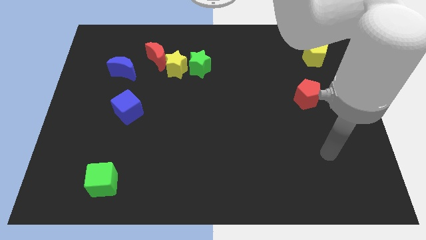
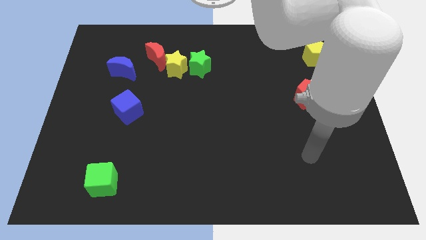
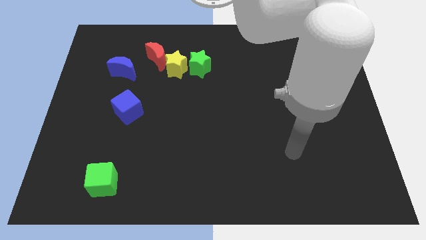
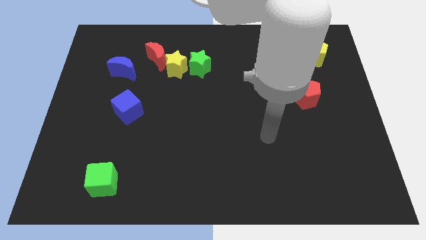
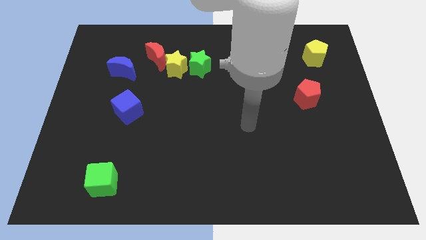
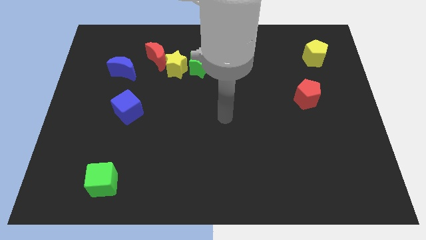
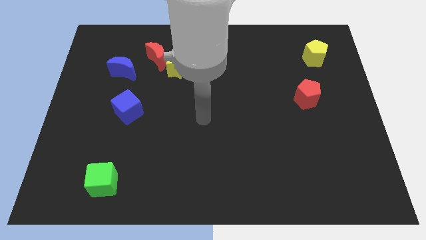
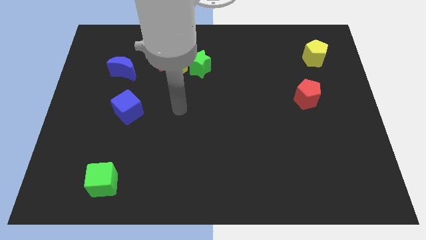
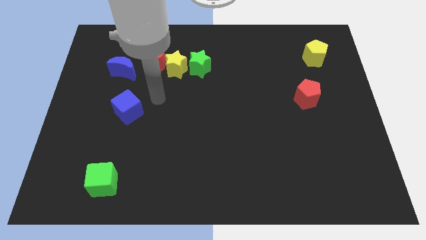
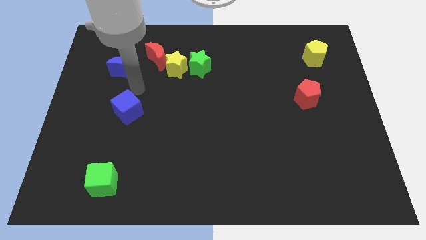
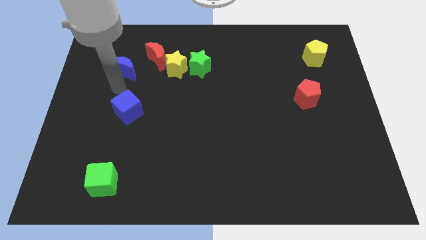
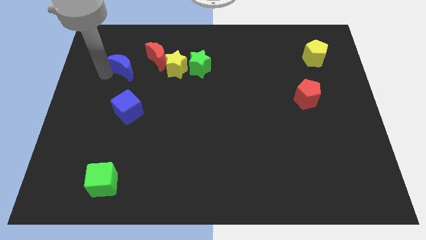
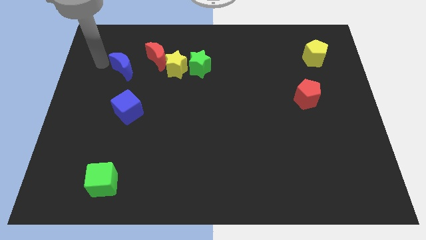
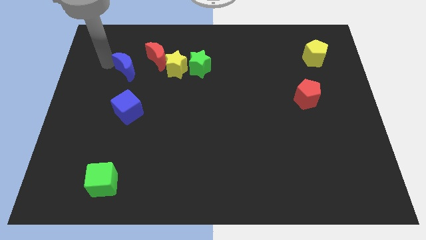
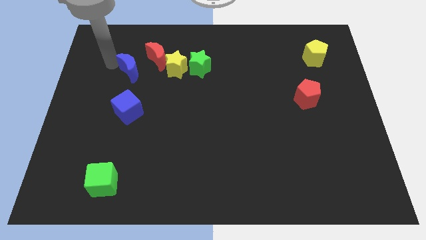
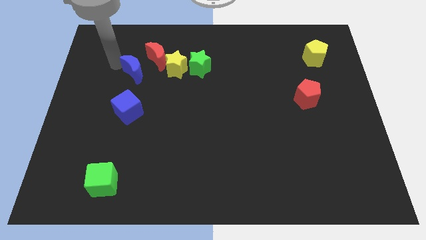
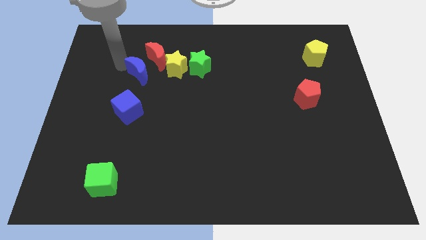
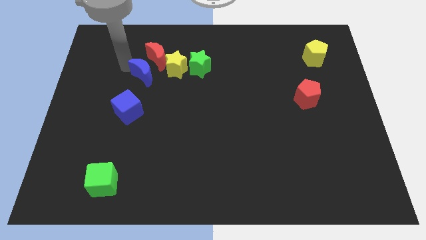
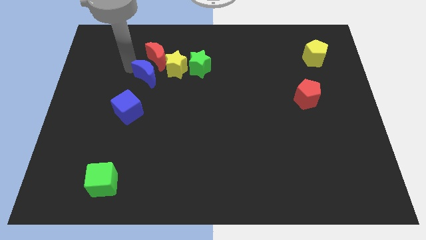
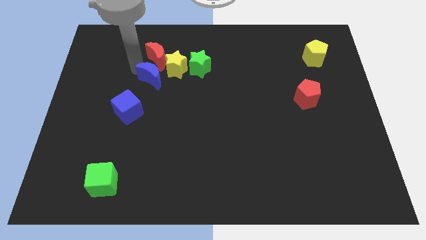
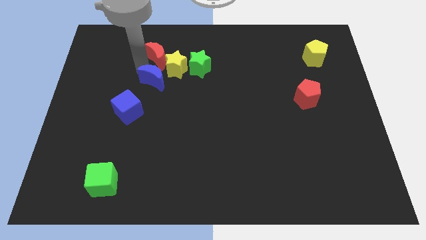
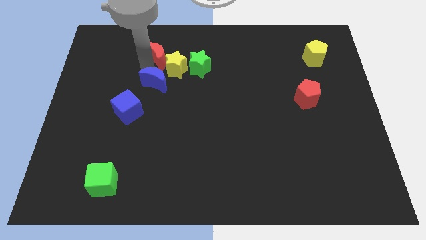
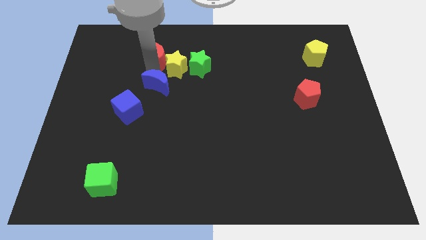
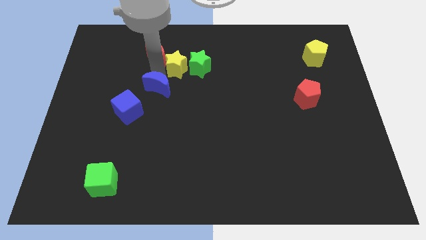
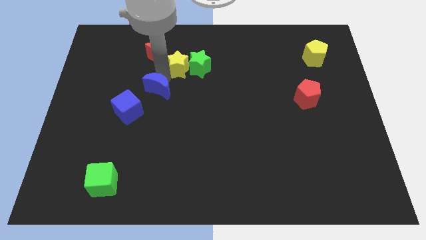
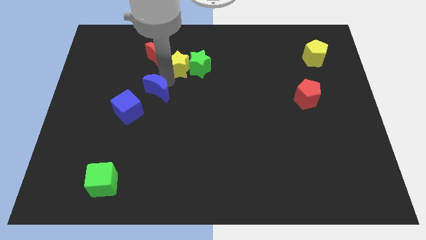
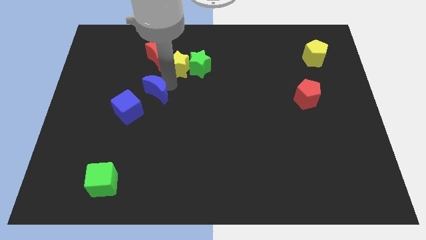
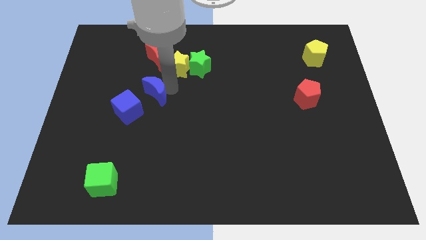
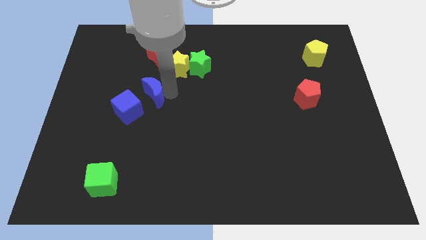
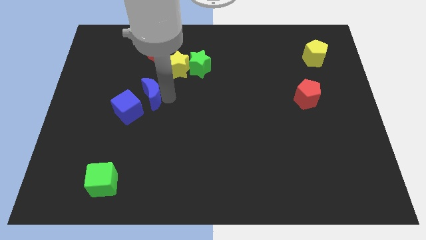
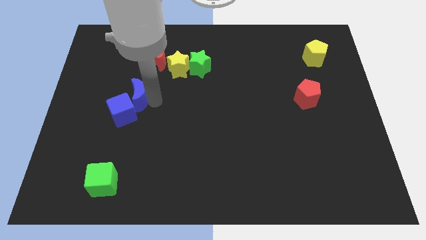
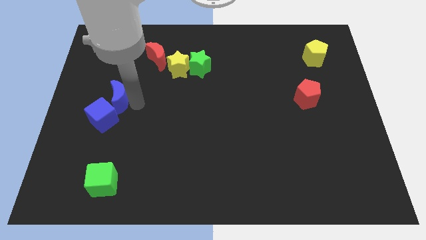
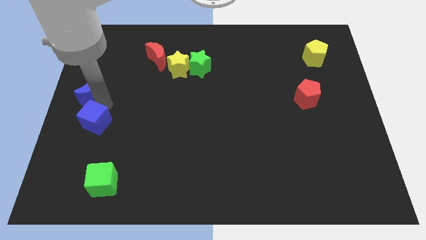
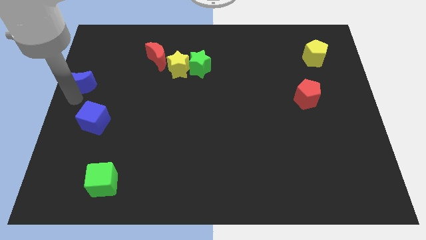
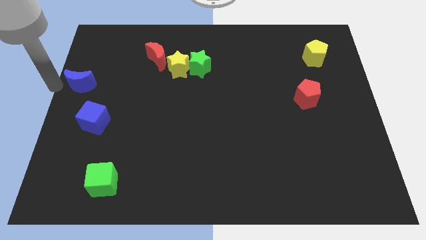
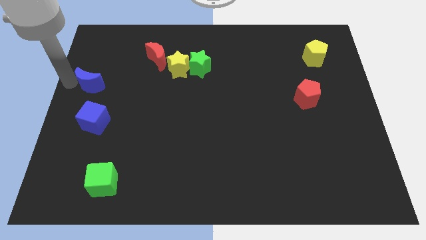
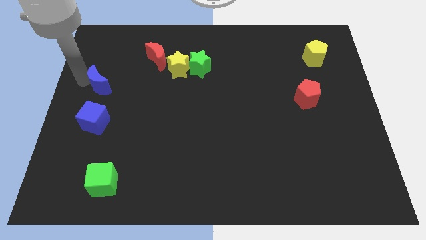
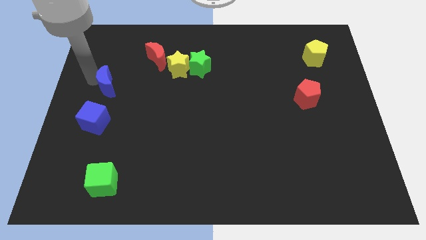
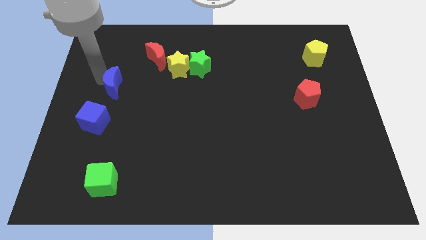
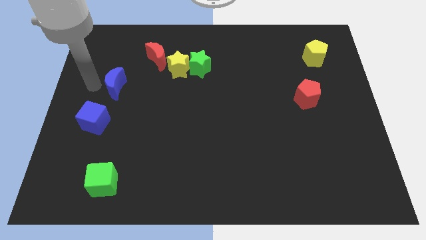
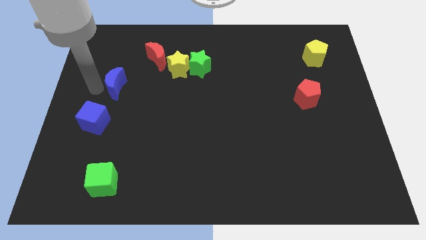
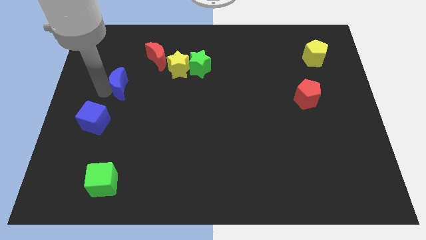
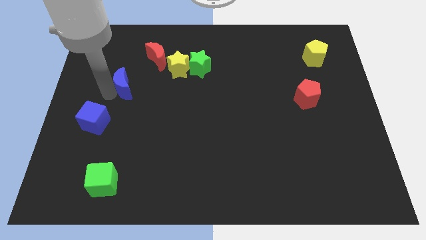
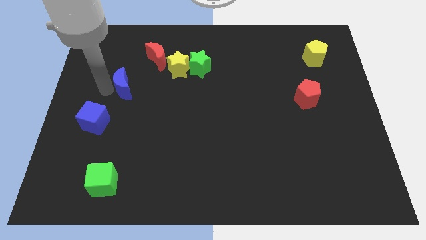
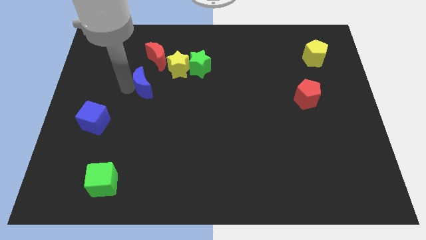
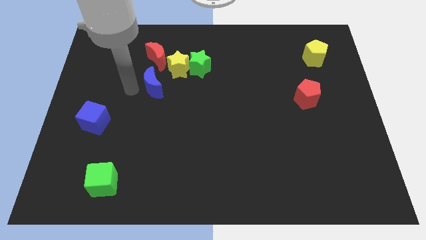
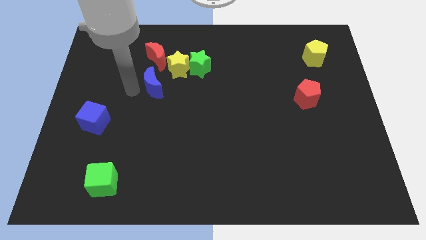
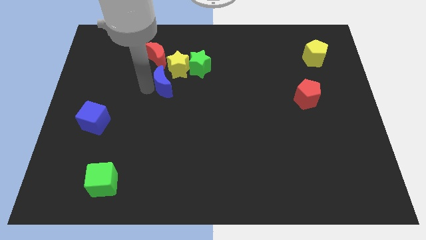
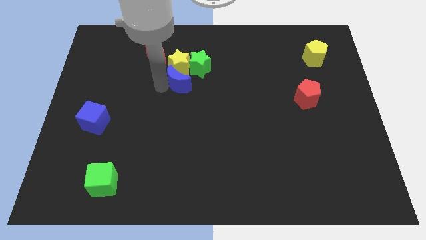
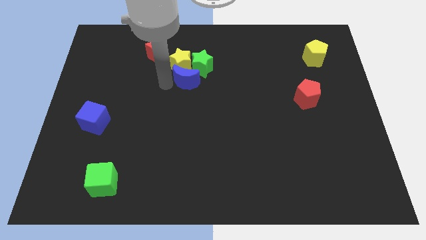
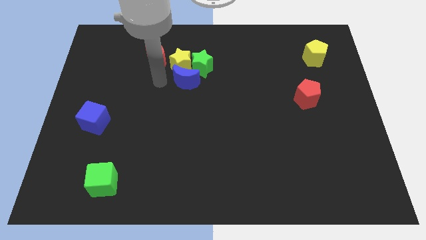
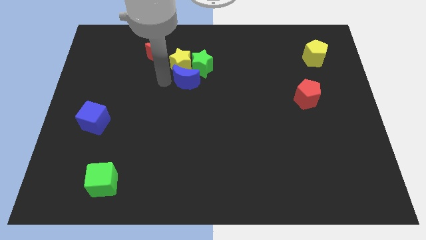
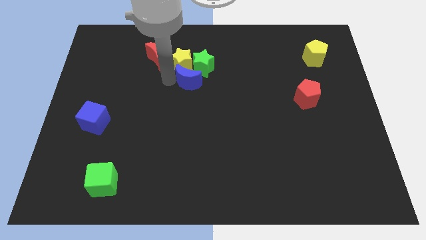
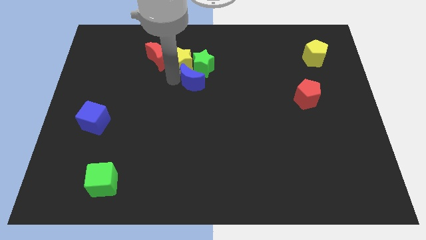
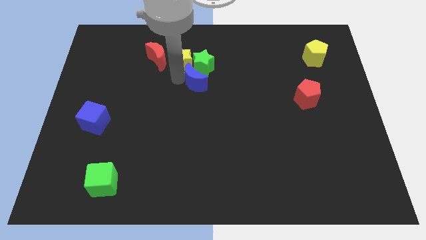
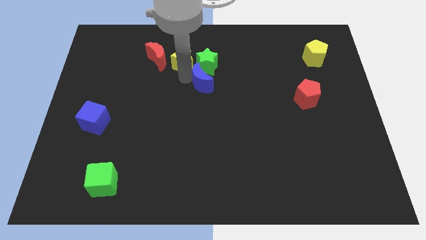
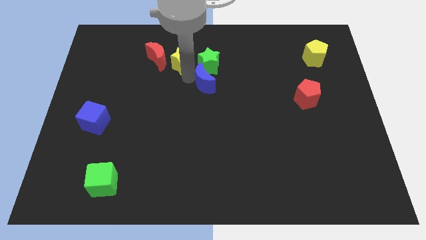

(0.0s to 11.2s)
push the blue moon to the right

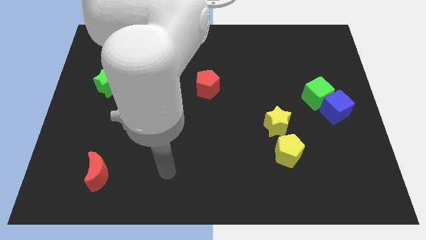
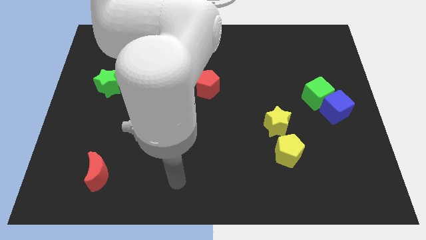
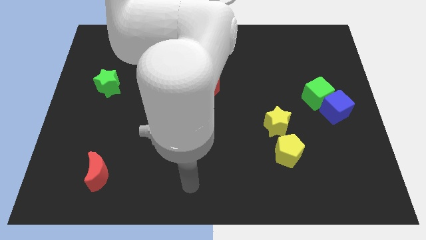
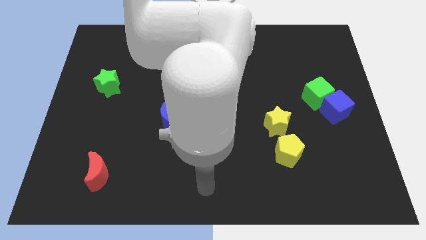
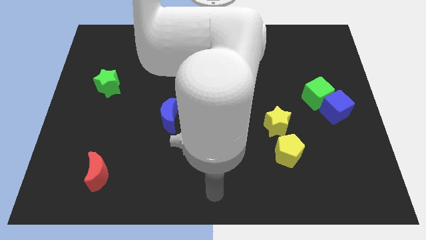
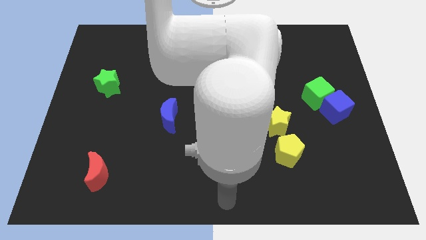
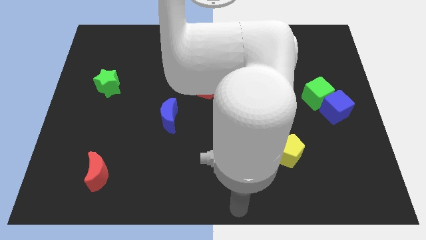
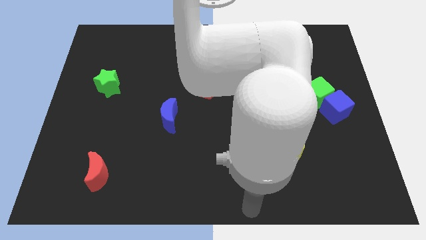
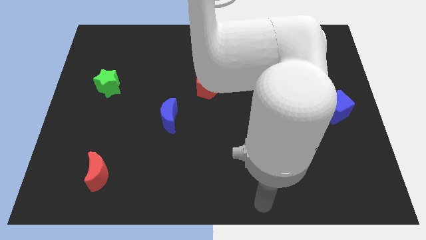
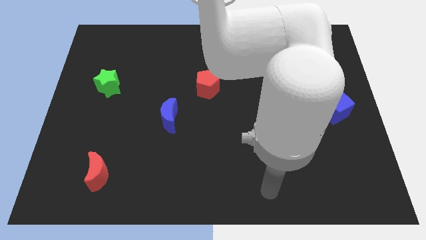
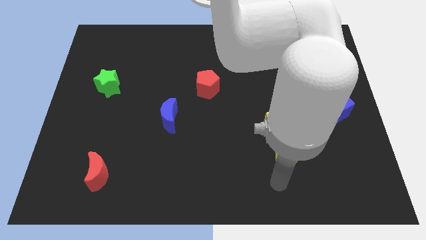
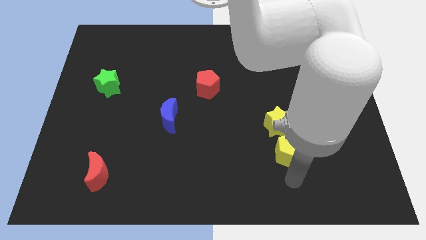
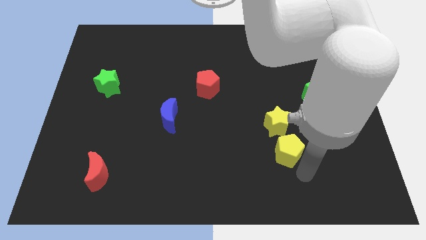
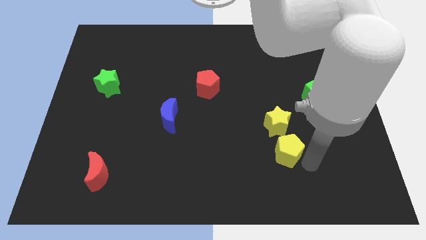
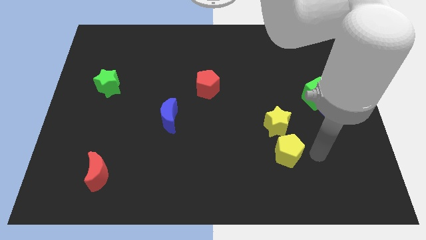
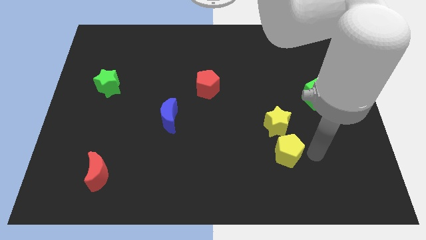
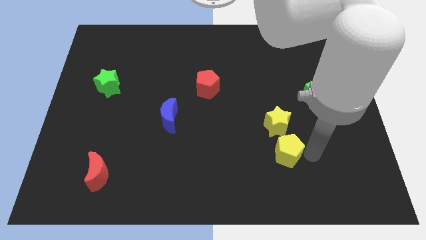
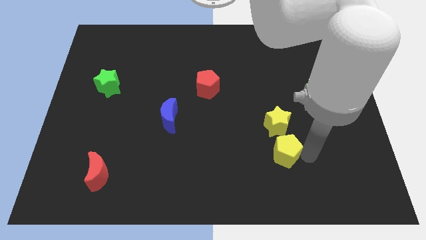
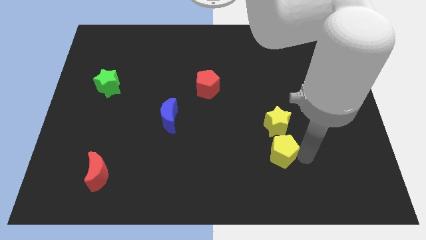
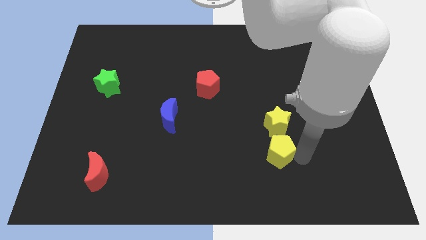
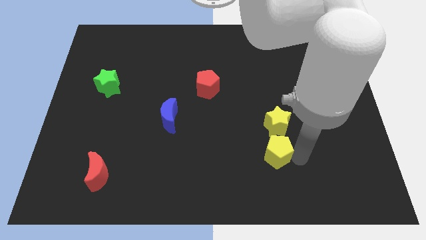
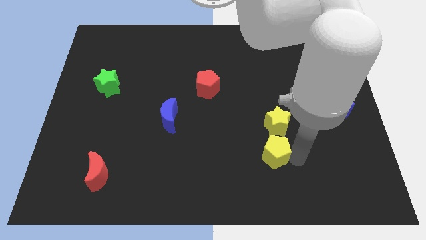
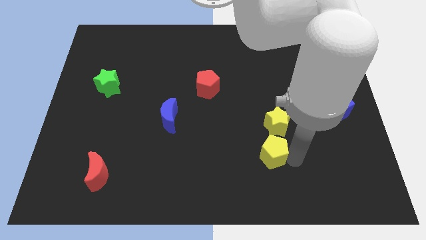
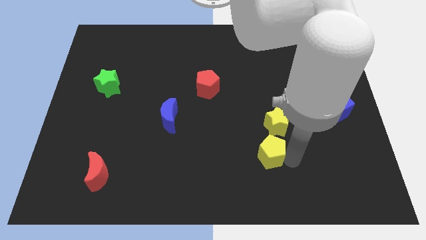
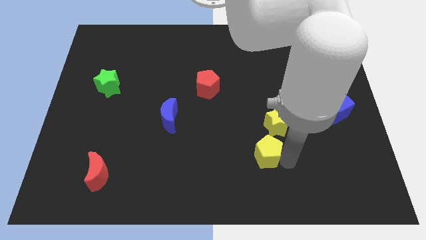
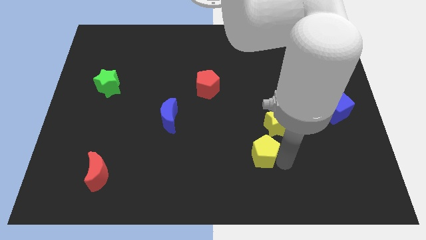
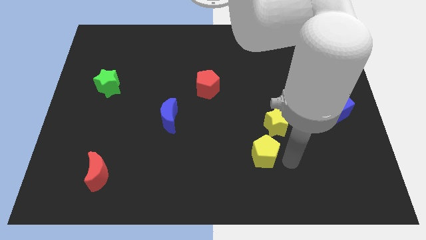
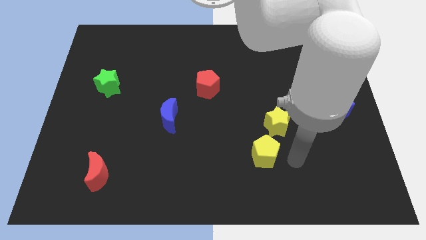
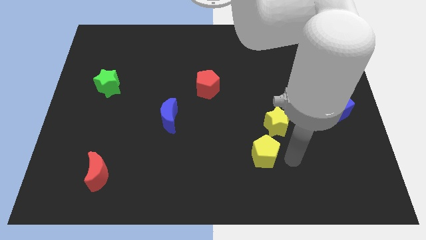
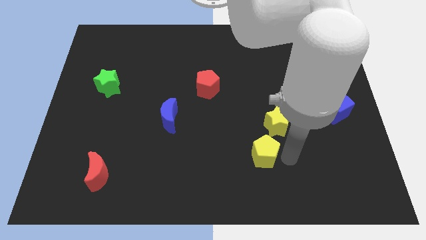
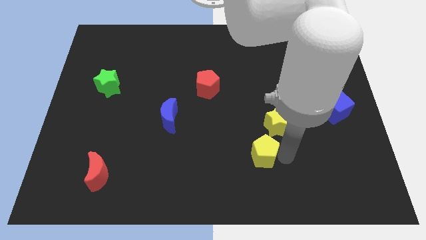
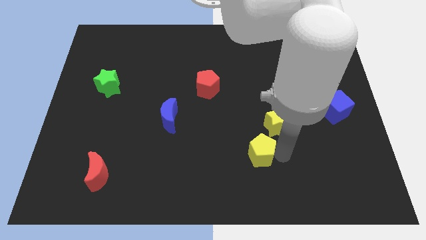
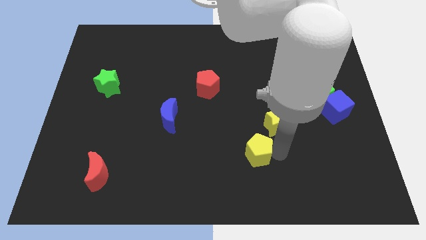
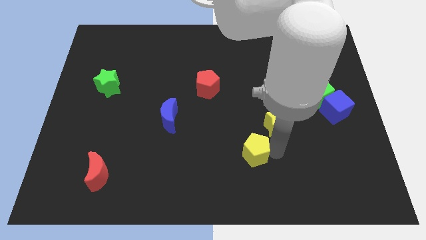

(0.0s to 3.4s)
slide the yellow pentagon to the left slightly
